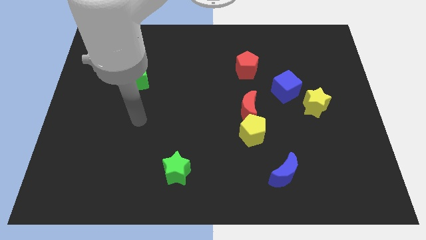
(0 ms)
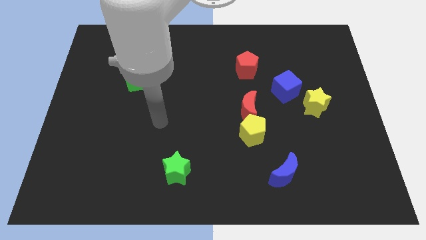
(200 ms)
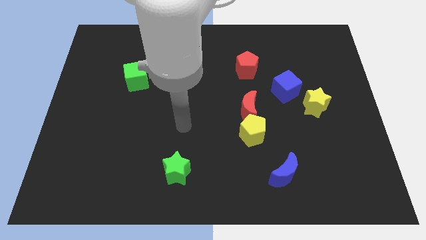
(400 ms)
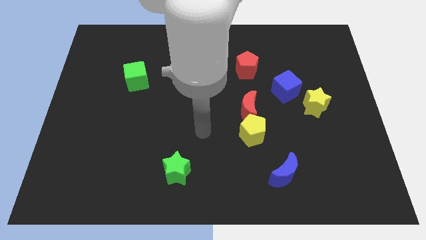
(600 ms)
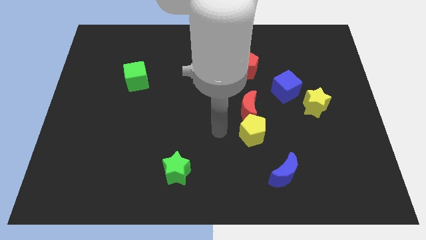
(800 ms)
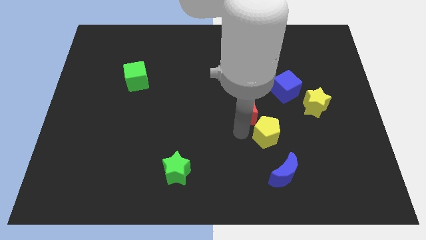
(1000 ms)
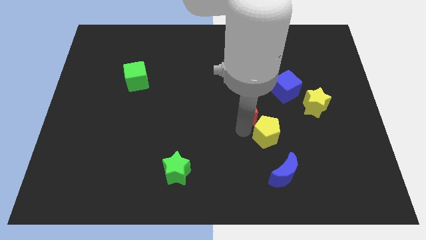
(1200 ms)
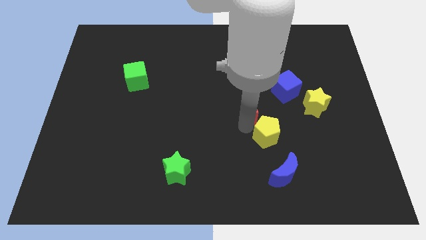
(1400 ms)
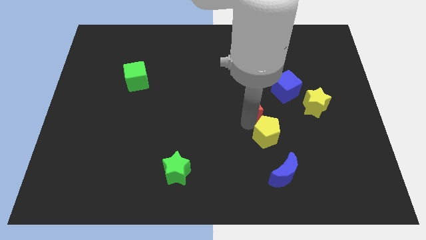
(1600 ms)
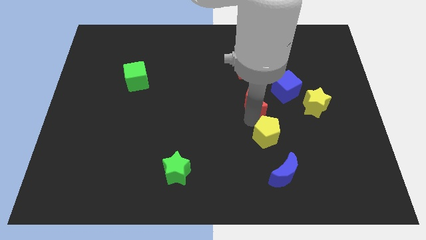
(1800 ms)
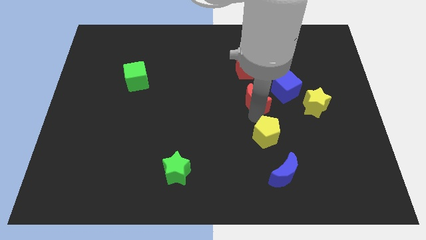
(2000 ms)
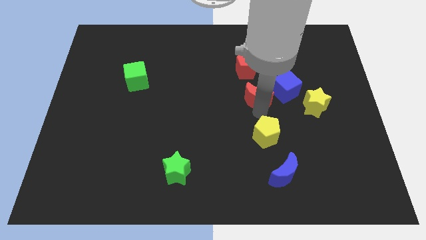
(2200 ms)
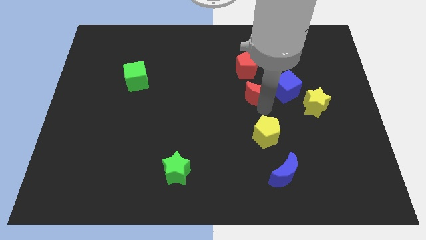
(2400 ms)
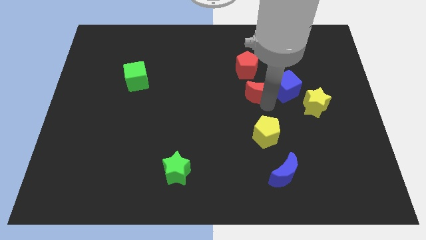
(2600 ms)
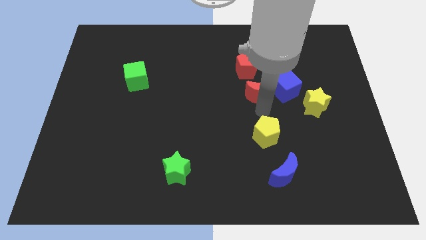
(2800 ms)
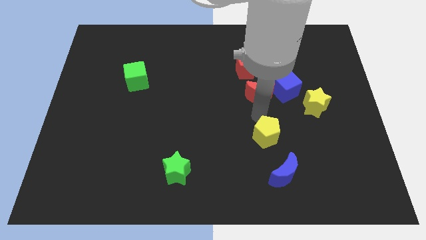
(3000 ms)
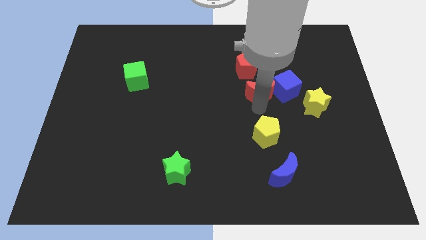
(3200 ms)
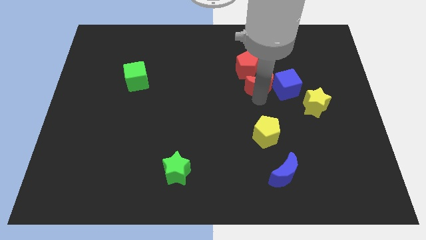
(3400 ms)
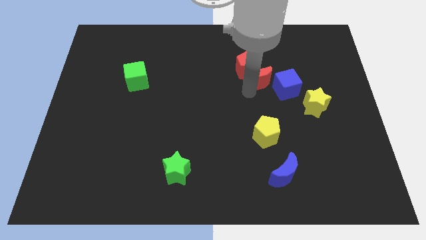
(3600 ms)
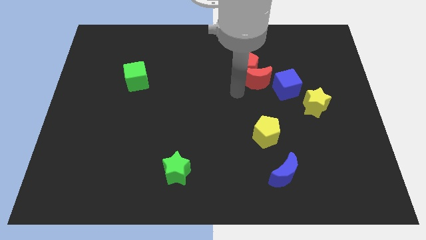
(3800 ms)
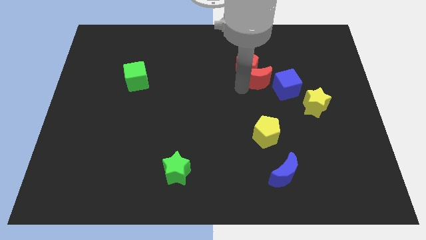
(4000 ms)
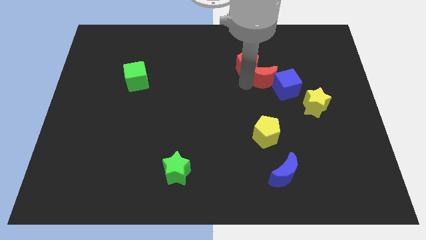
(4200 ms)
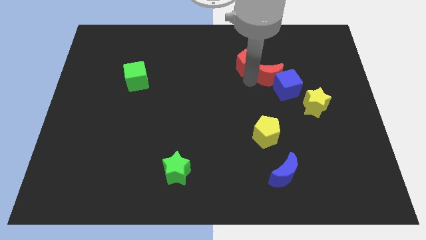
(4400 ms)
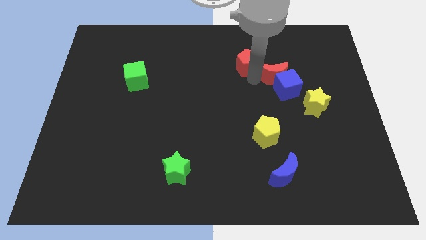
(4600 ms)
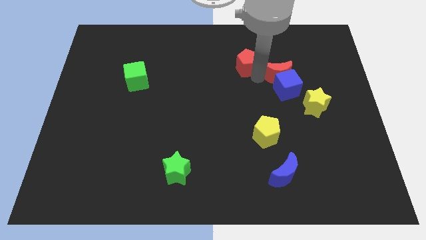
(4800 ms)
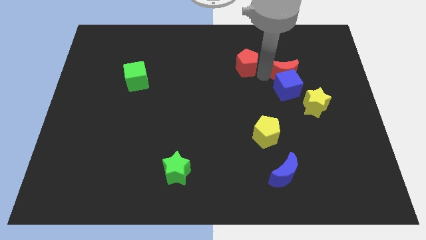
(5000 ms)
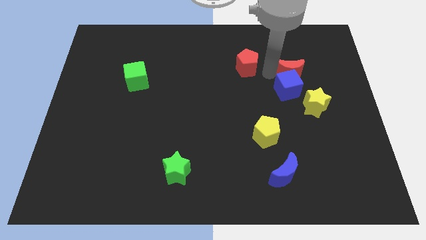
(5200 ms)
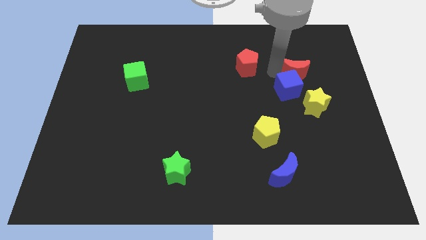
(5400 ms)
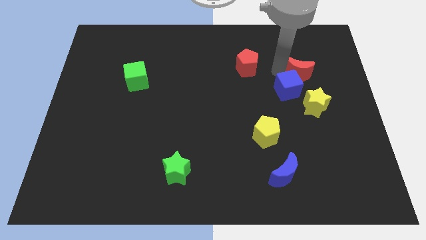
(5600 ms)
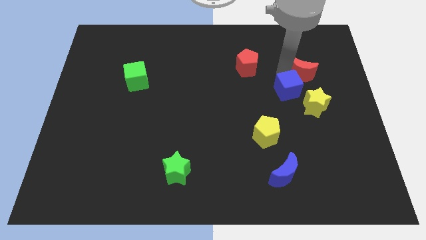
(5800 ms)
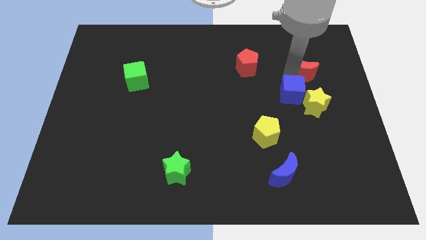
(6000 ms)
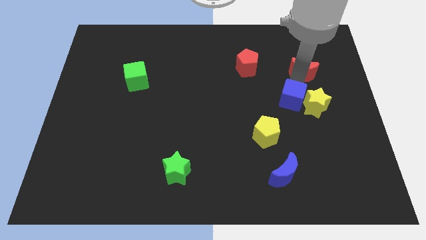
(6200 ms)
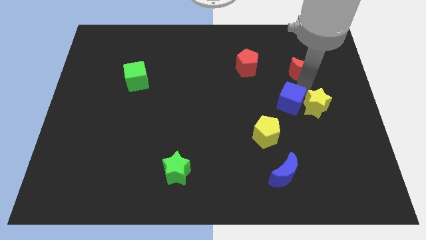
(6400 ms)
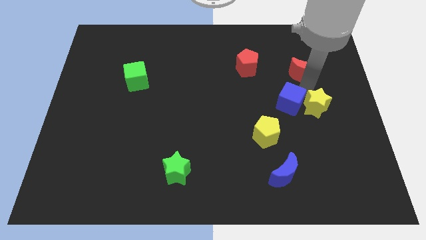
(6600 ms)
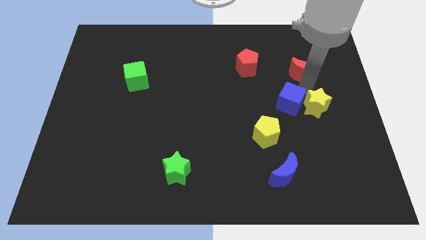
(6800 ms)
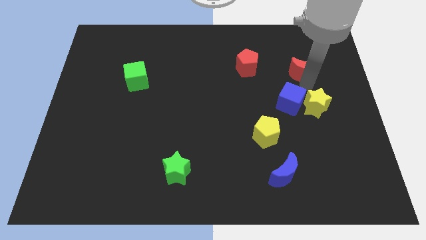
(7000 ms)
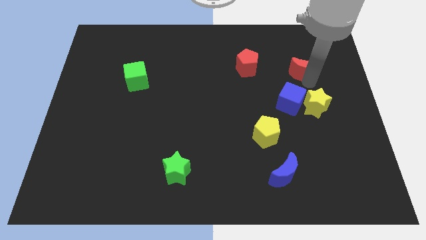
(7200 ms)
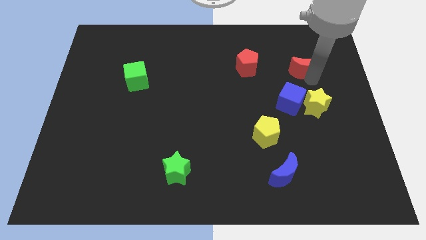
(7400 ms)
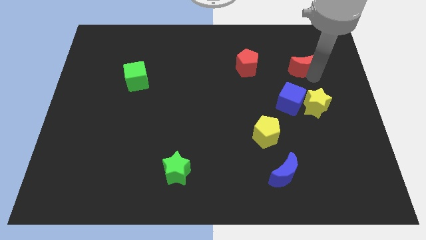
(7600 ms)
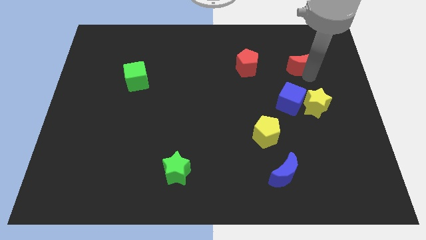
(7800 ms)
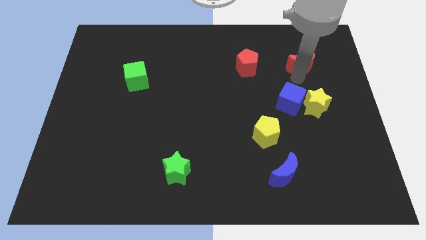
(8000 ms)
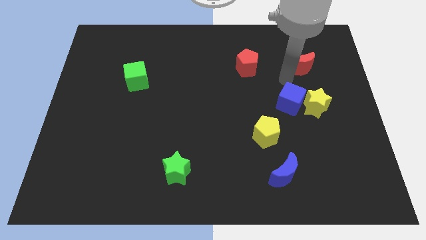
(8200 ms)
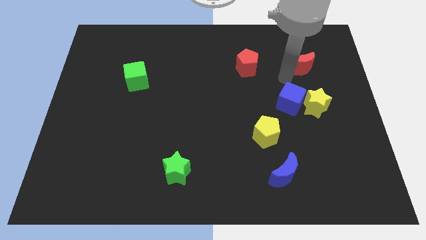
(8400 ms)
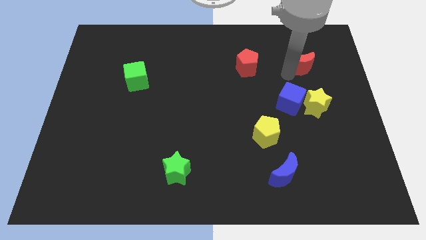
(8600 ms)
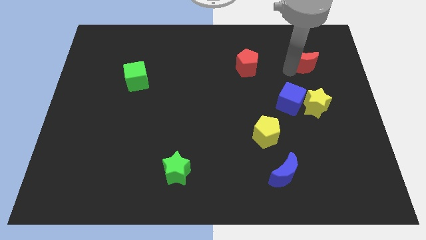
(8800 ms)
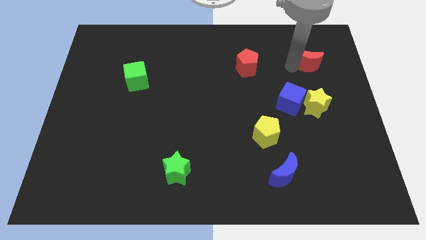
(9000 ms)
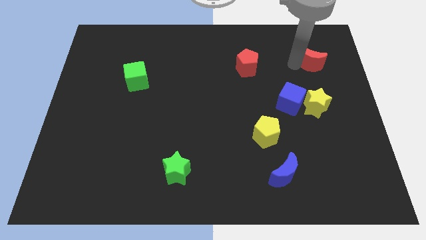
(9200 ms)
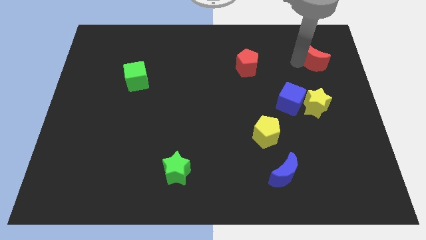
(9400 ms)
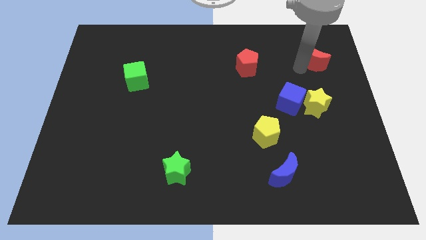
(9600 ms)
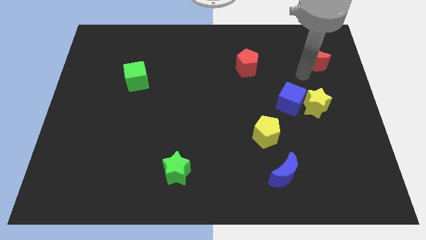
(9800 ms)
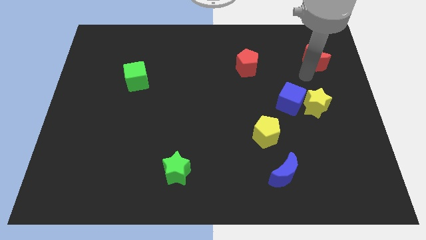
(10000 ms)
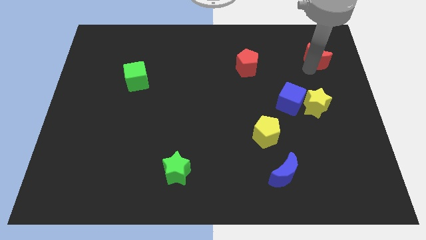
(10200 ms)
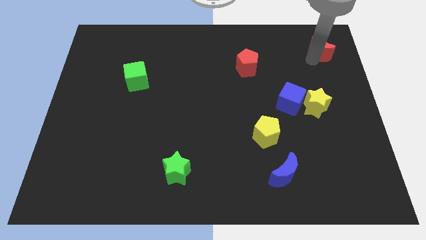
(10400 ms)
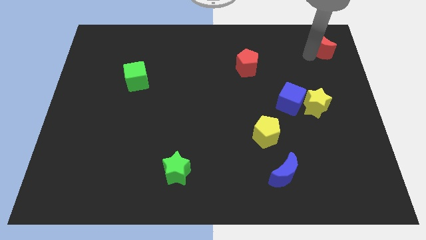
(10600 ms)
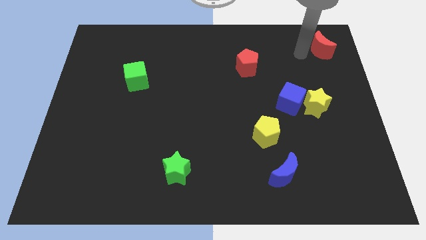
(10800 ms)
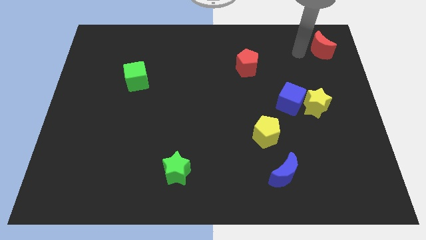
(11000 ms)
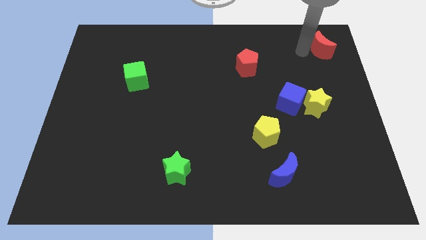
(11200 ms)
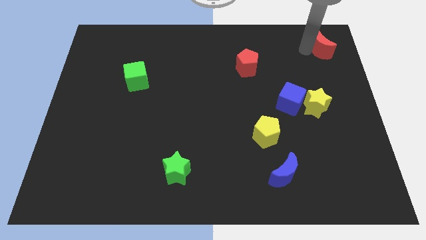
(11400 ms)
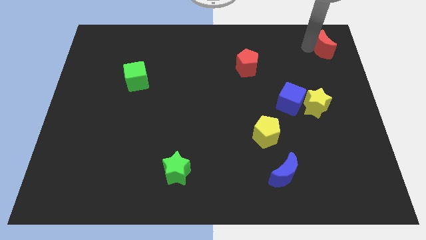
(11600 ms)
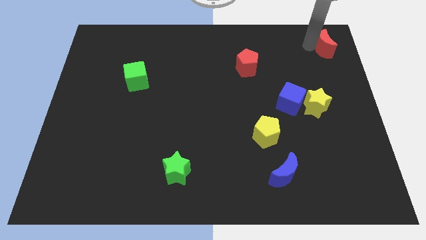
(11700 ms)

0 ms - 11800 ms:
put the red moon to the upper right corner

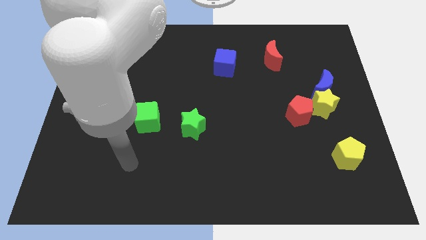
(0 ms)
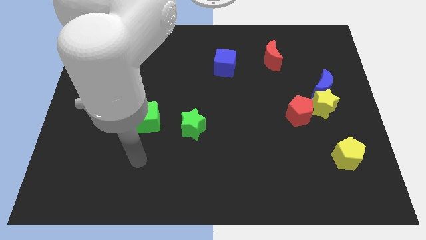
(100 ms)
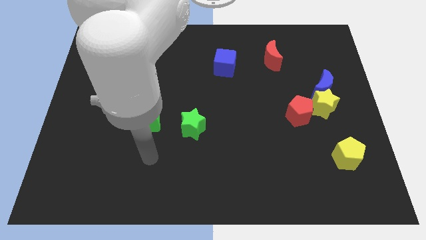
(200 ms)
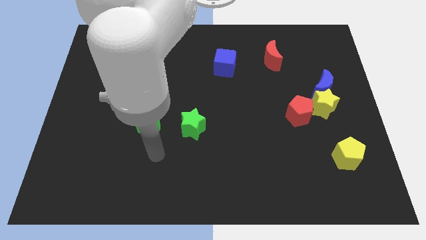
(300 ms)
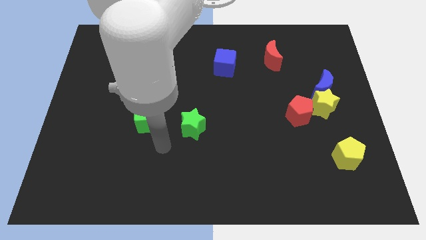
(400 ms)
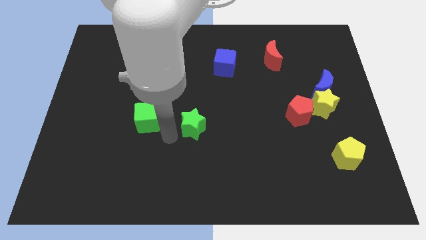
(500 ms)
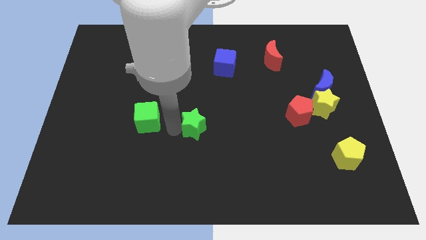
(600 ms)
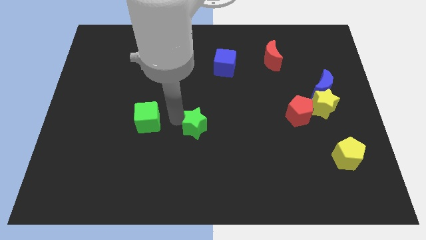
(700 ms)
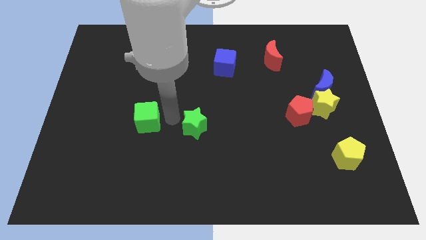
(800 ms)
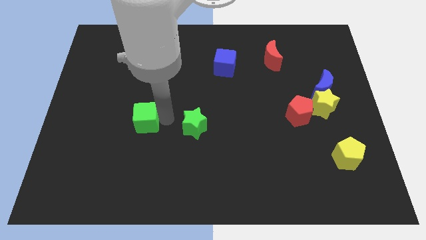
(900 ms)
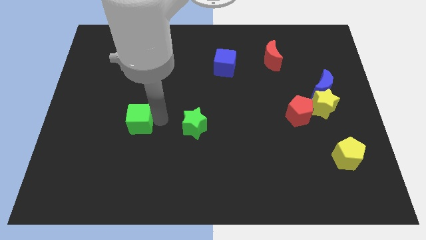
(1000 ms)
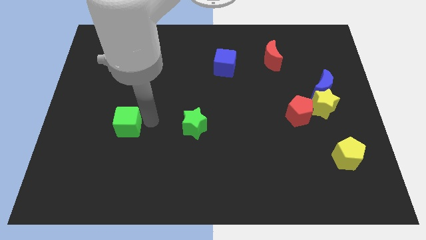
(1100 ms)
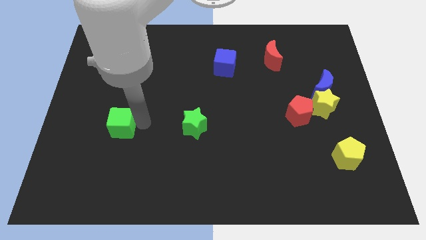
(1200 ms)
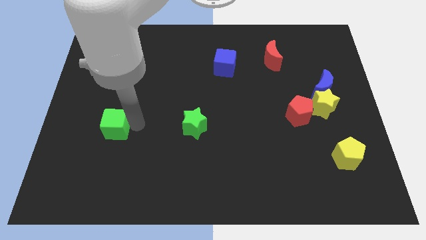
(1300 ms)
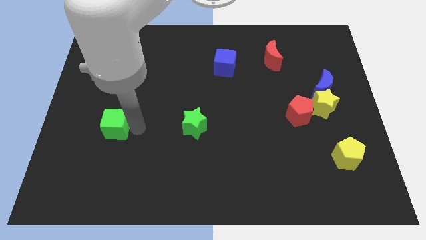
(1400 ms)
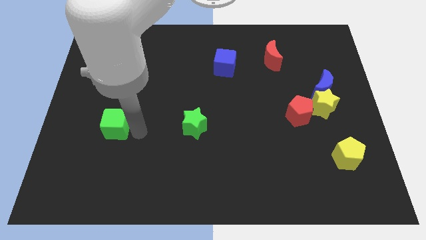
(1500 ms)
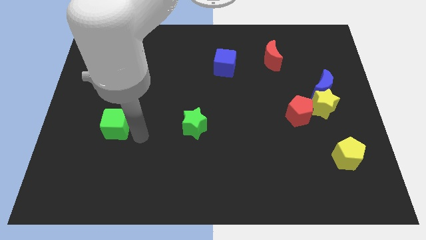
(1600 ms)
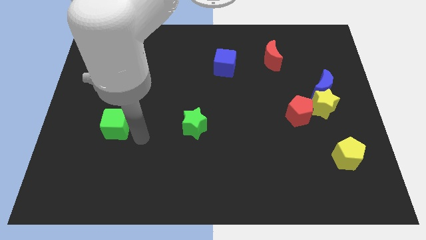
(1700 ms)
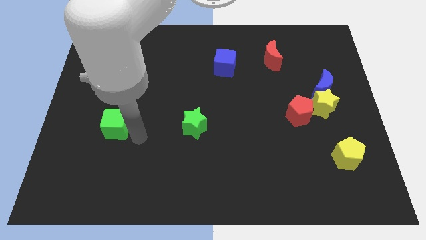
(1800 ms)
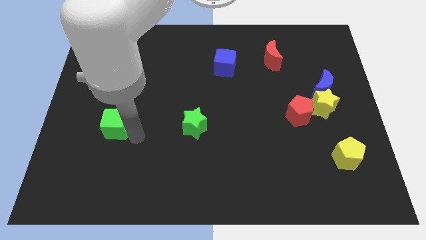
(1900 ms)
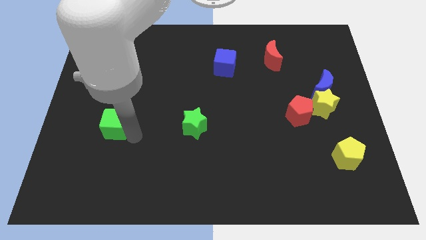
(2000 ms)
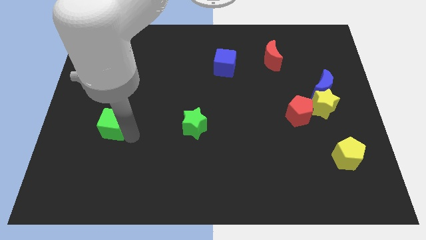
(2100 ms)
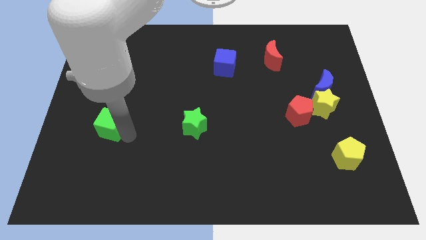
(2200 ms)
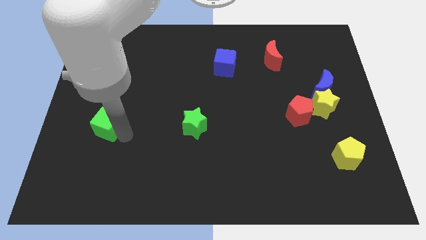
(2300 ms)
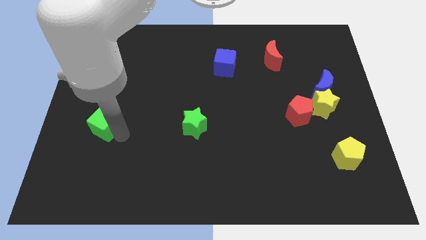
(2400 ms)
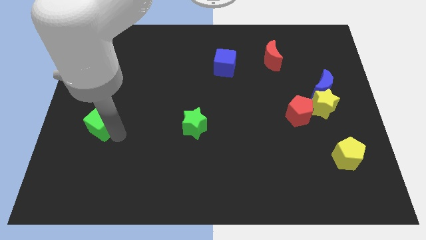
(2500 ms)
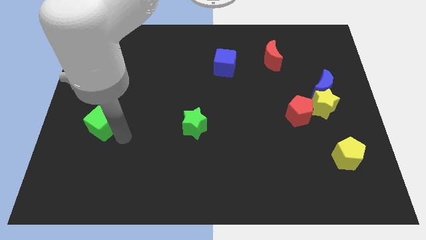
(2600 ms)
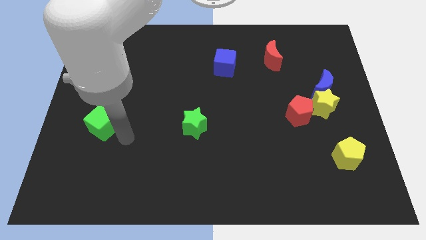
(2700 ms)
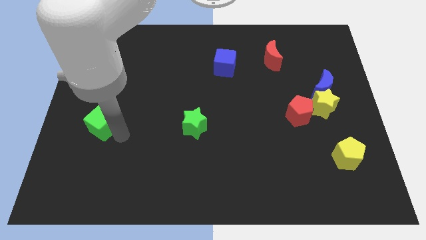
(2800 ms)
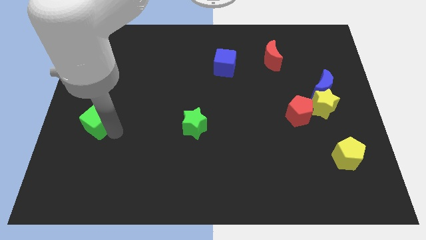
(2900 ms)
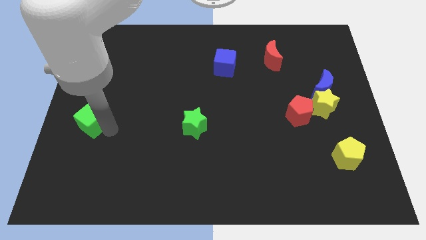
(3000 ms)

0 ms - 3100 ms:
slide the green cube to the left side
